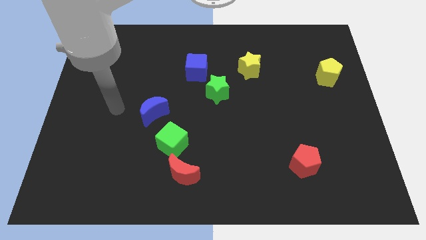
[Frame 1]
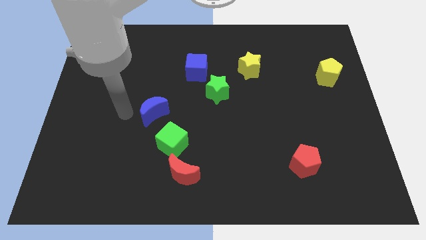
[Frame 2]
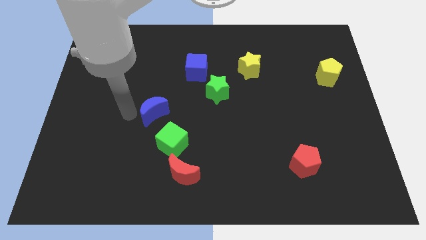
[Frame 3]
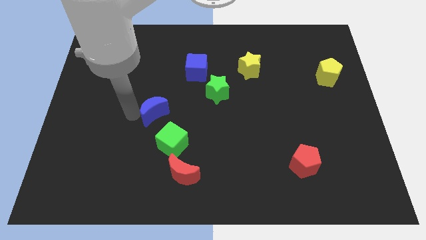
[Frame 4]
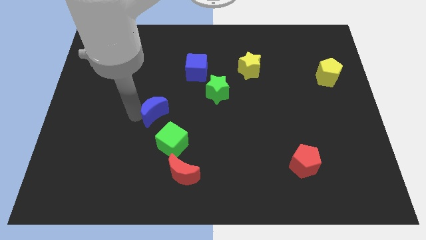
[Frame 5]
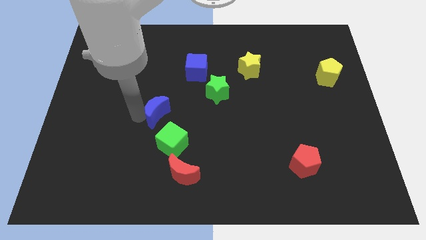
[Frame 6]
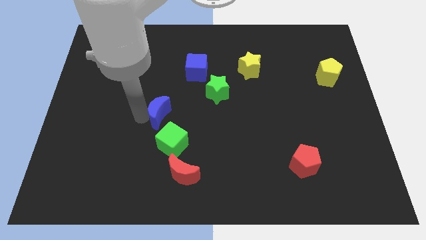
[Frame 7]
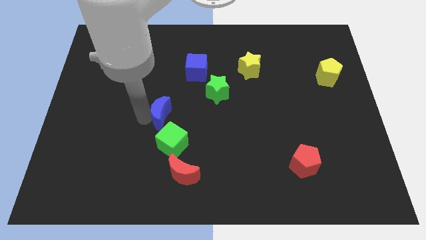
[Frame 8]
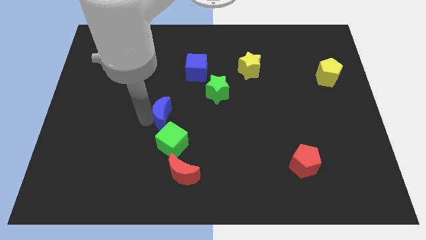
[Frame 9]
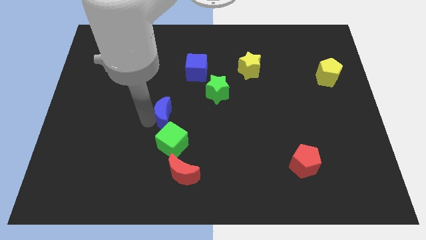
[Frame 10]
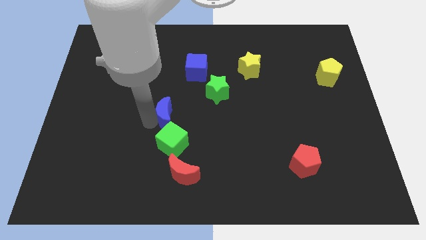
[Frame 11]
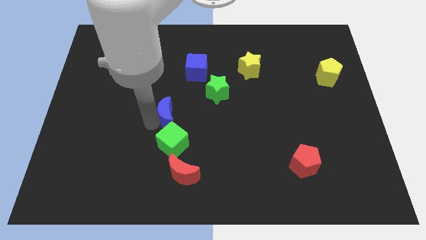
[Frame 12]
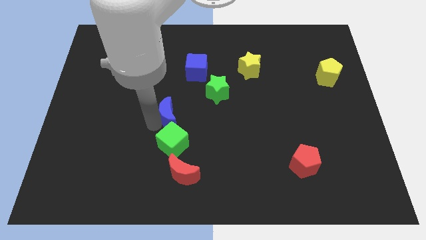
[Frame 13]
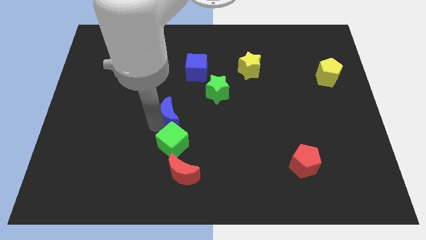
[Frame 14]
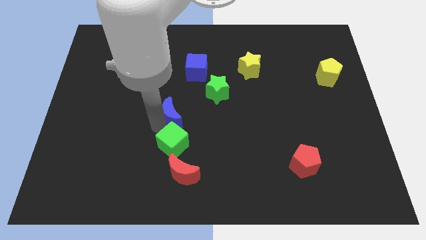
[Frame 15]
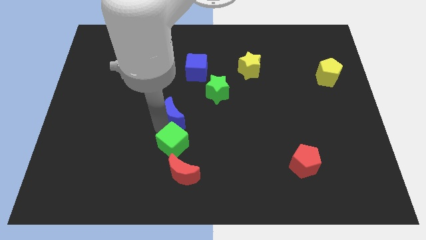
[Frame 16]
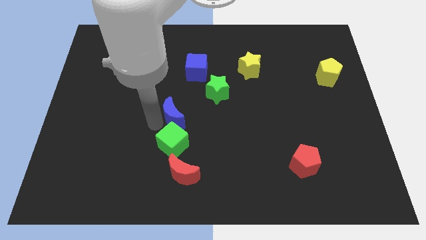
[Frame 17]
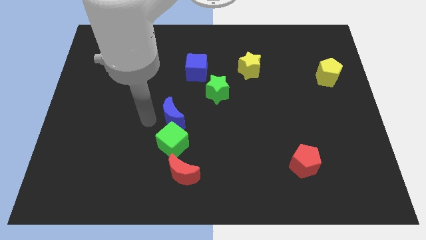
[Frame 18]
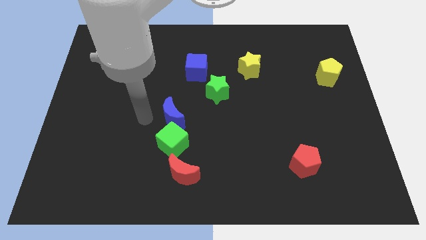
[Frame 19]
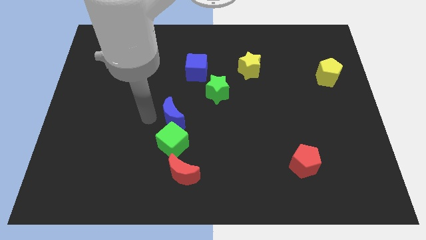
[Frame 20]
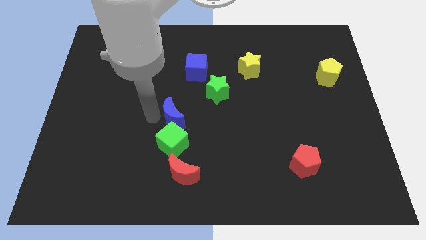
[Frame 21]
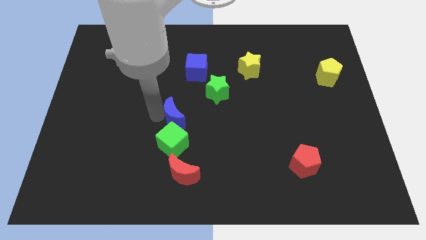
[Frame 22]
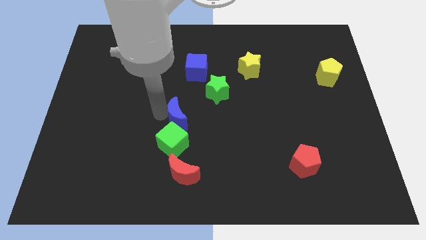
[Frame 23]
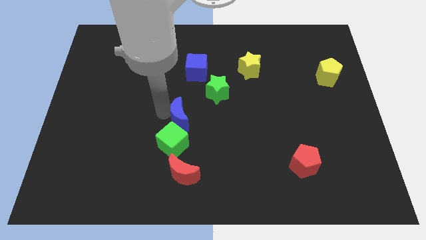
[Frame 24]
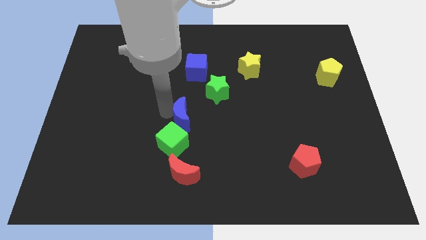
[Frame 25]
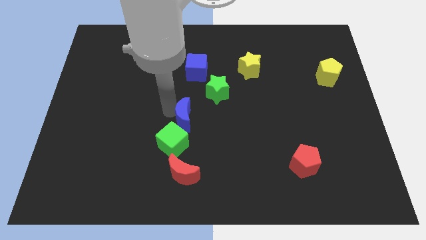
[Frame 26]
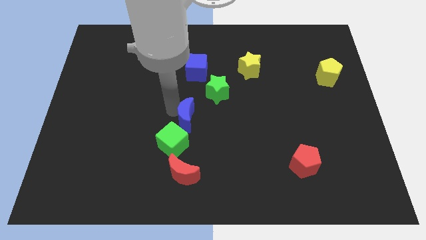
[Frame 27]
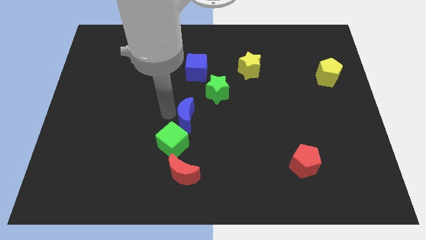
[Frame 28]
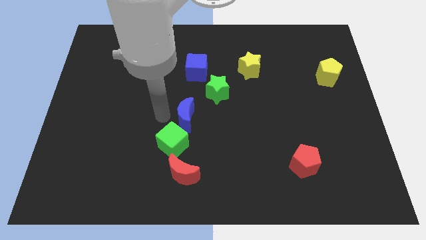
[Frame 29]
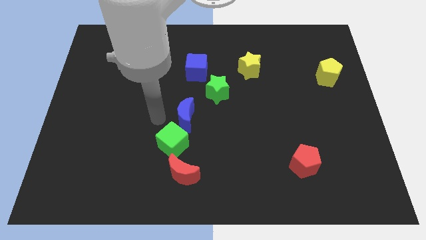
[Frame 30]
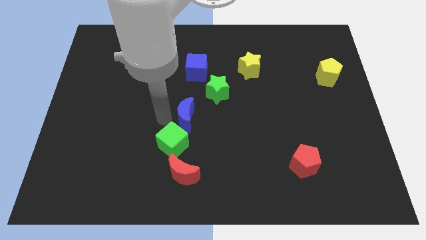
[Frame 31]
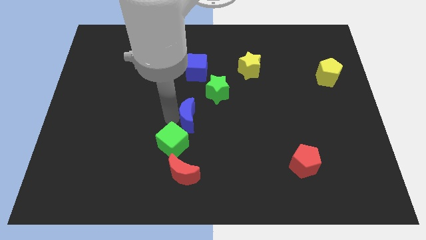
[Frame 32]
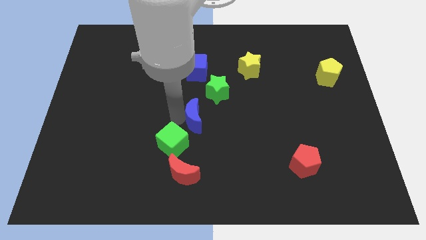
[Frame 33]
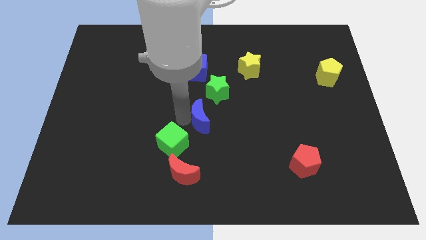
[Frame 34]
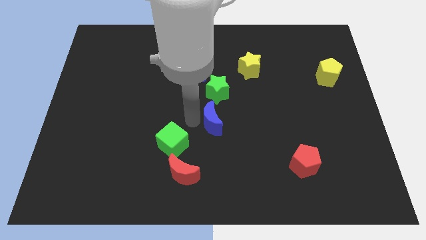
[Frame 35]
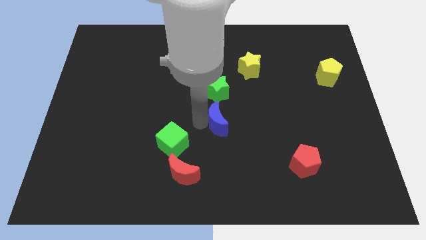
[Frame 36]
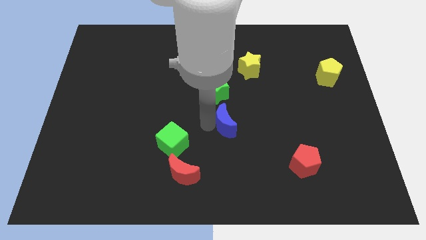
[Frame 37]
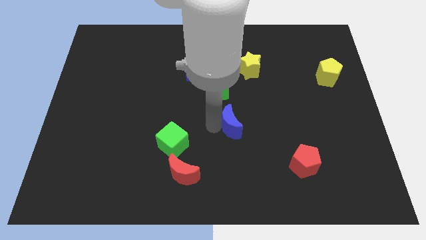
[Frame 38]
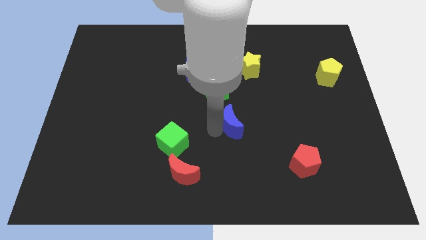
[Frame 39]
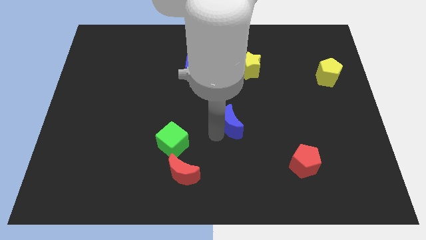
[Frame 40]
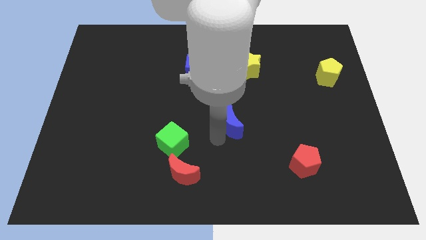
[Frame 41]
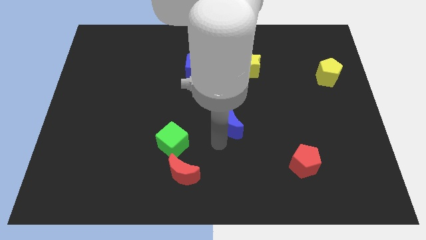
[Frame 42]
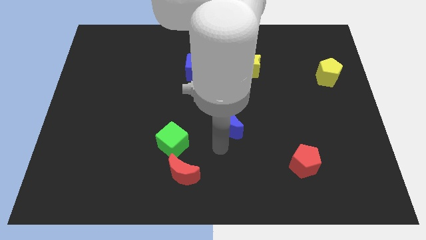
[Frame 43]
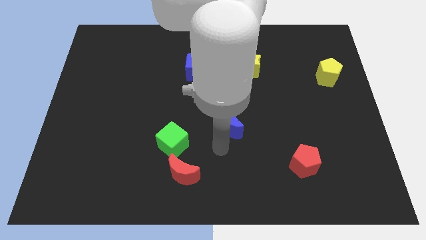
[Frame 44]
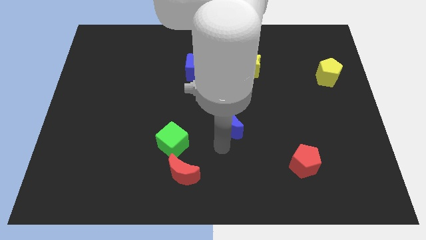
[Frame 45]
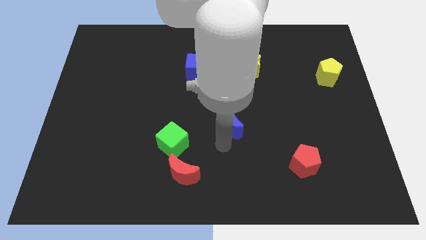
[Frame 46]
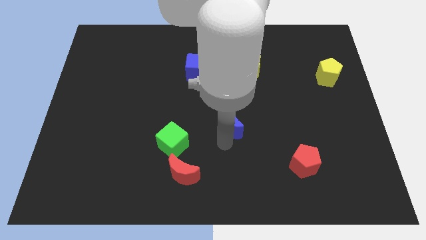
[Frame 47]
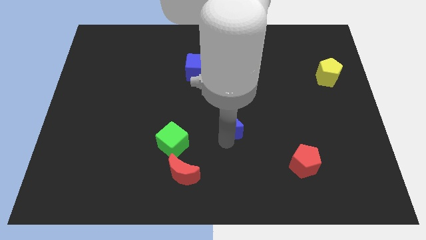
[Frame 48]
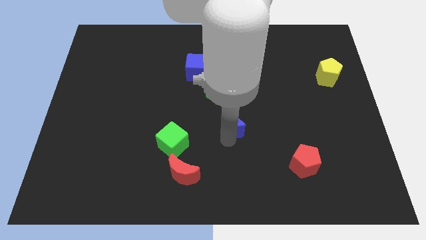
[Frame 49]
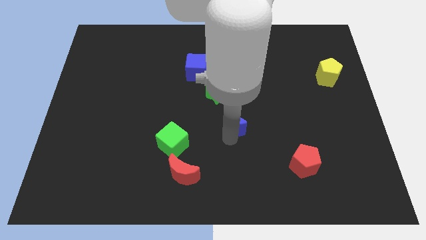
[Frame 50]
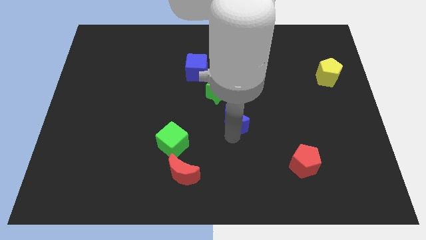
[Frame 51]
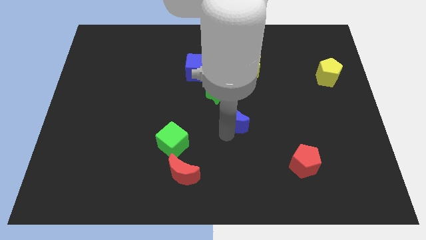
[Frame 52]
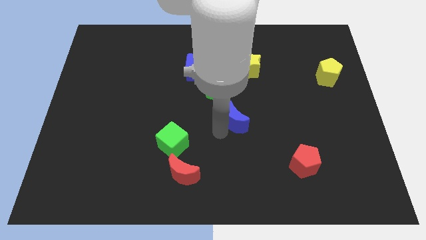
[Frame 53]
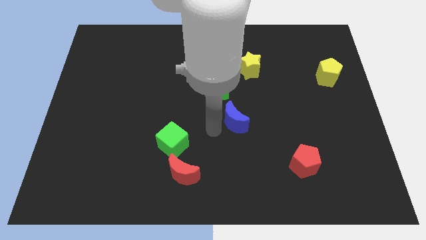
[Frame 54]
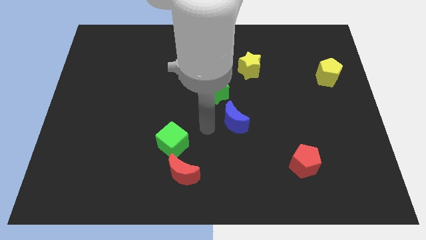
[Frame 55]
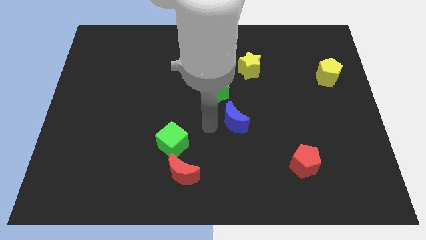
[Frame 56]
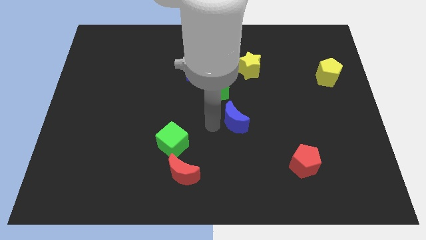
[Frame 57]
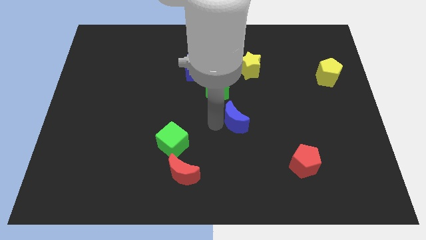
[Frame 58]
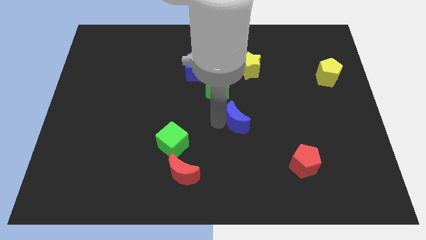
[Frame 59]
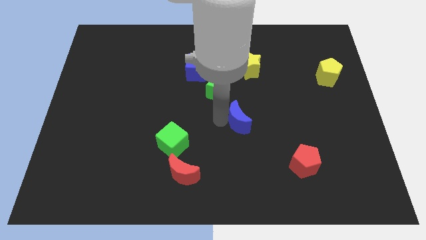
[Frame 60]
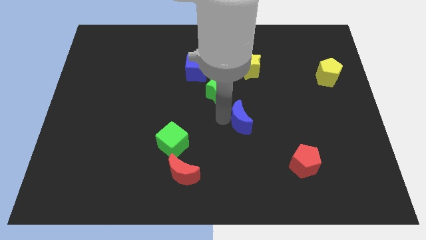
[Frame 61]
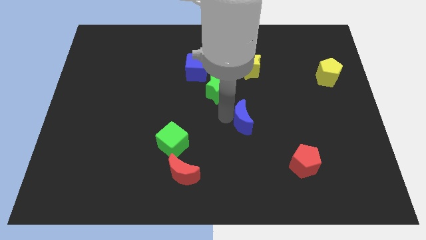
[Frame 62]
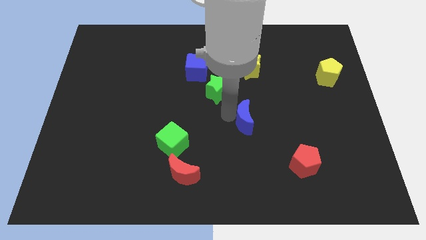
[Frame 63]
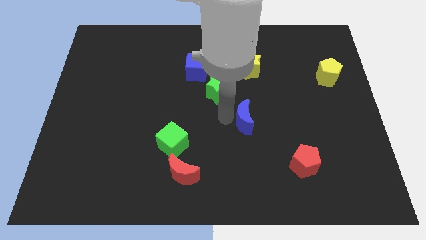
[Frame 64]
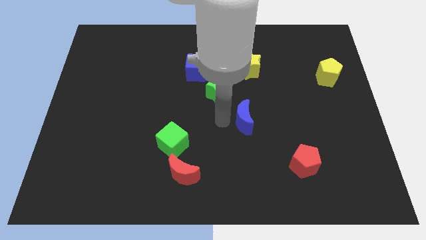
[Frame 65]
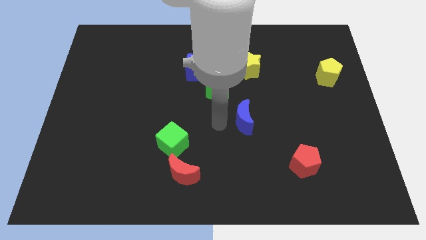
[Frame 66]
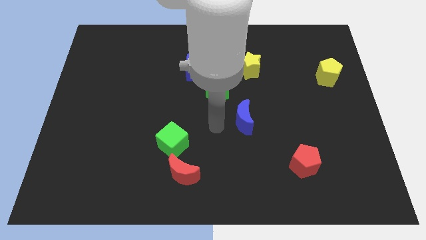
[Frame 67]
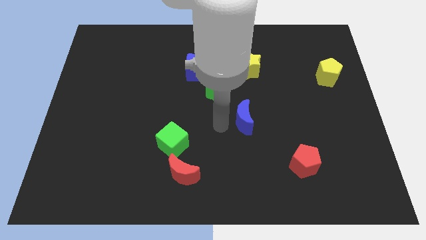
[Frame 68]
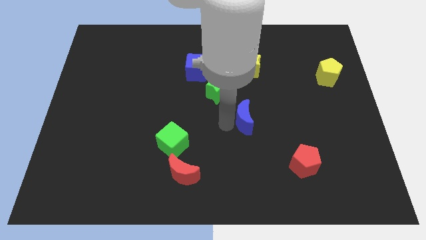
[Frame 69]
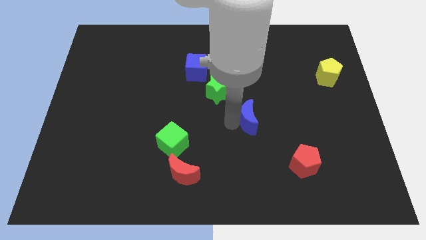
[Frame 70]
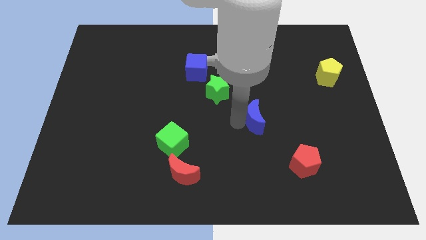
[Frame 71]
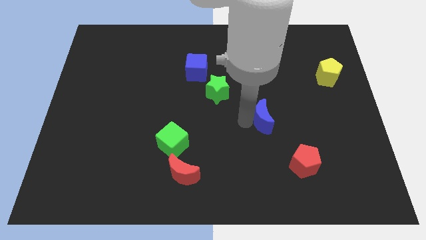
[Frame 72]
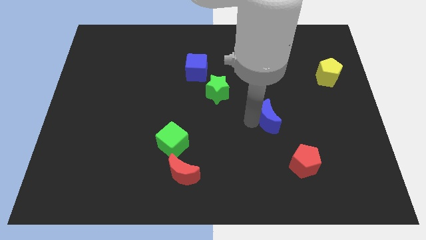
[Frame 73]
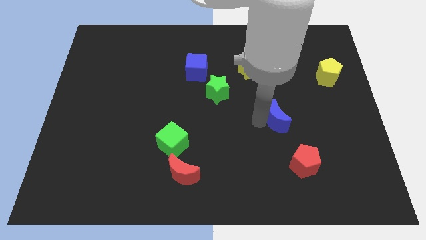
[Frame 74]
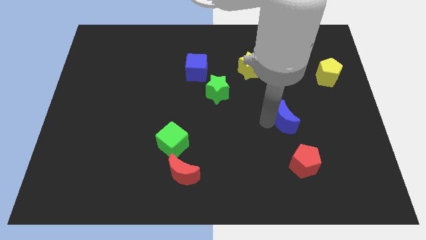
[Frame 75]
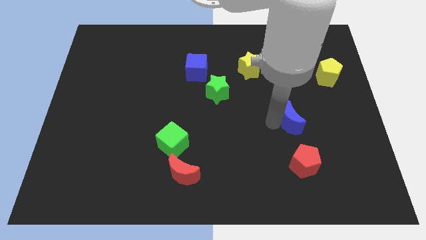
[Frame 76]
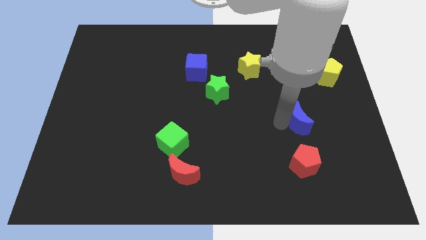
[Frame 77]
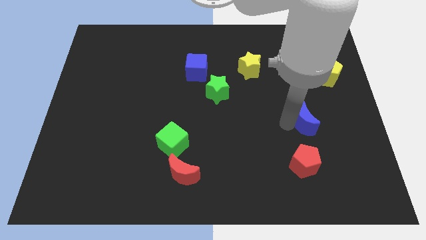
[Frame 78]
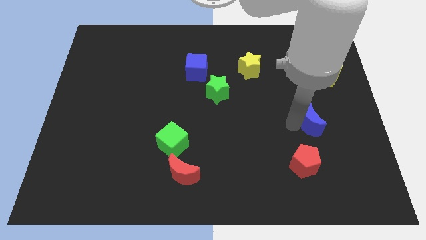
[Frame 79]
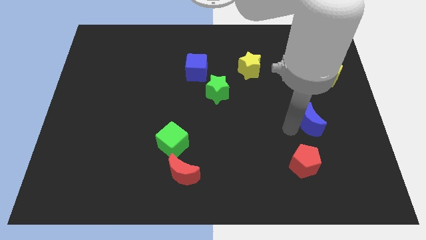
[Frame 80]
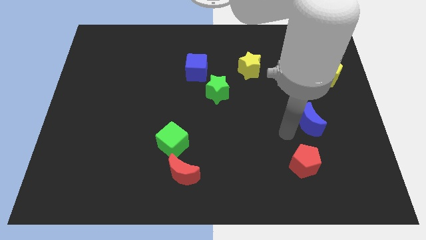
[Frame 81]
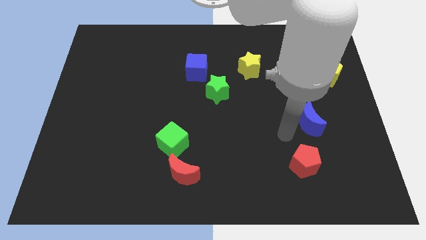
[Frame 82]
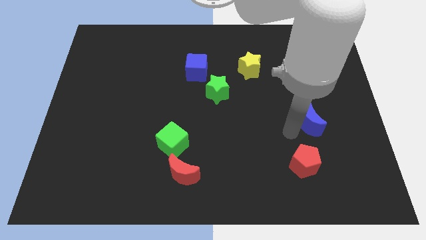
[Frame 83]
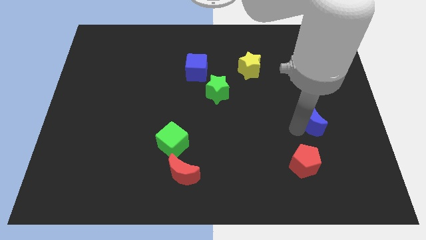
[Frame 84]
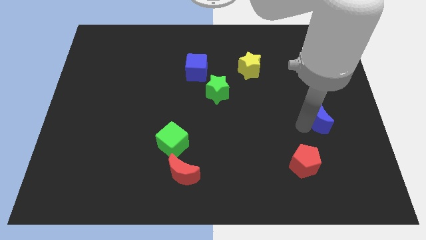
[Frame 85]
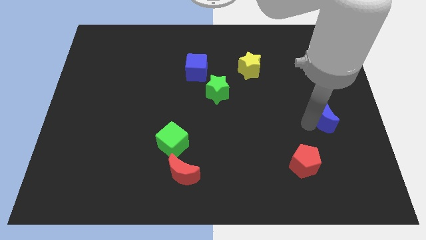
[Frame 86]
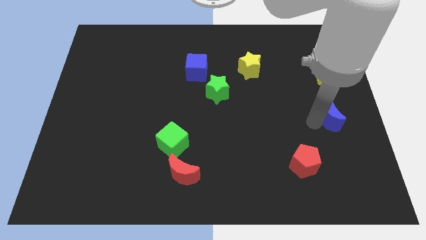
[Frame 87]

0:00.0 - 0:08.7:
push the blue moon to the center right
